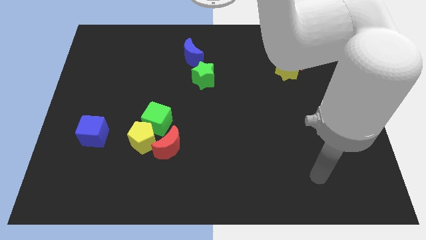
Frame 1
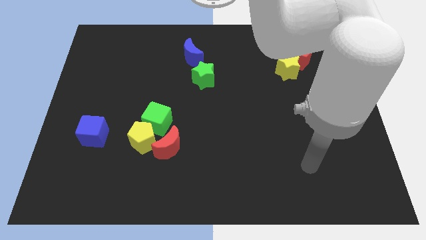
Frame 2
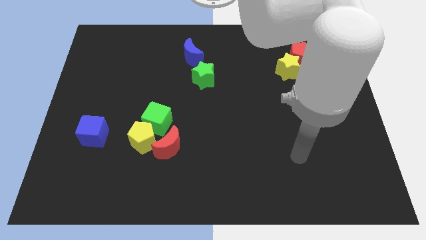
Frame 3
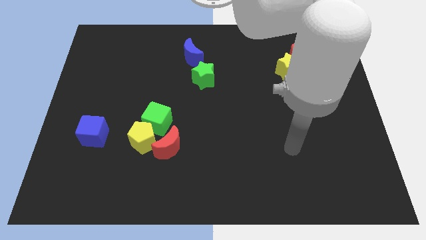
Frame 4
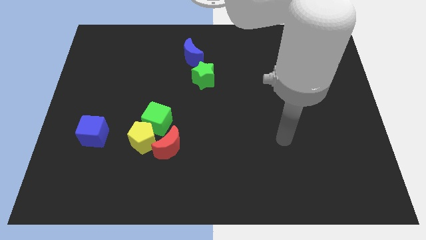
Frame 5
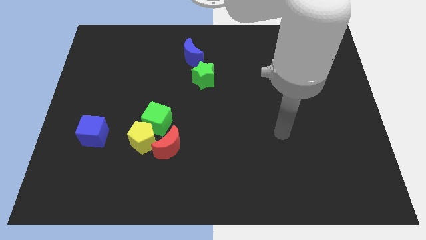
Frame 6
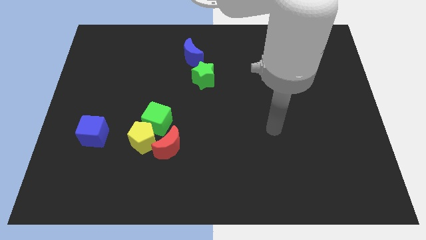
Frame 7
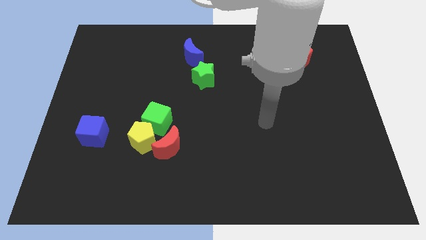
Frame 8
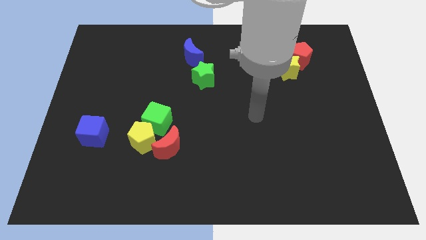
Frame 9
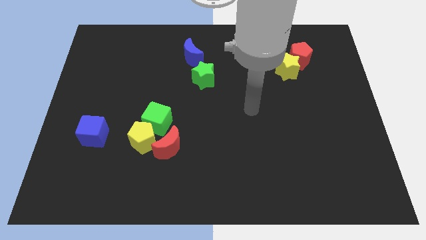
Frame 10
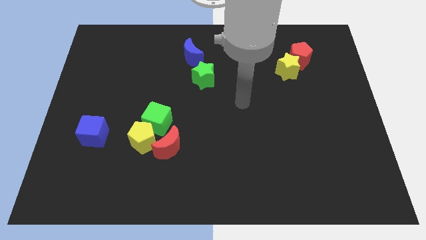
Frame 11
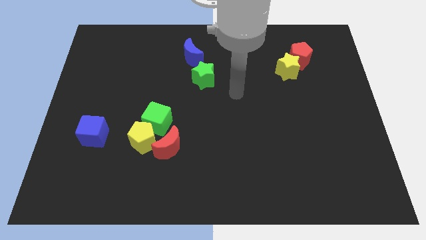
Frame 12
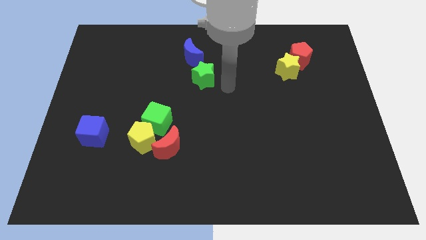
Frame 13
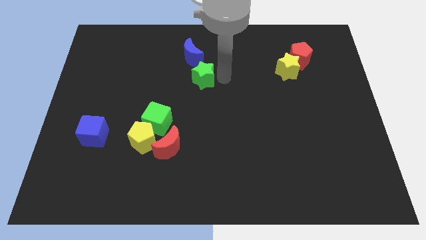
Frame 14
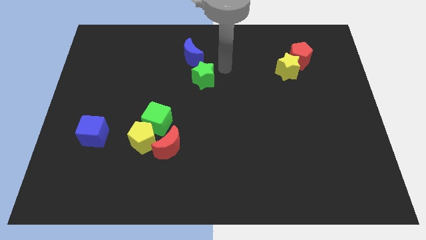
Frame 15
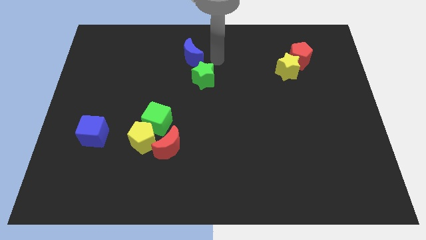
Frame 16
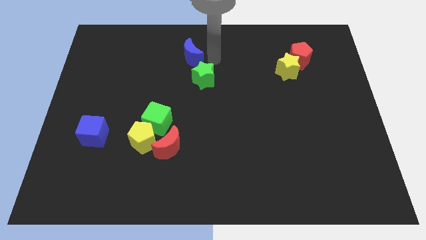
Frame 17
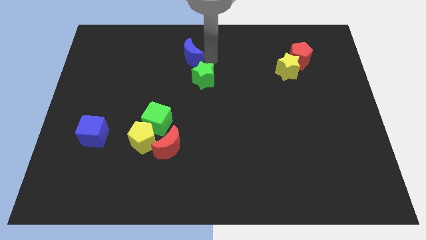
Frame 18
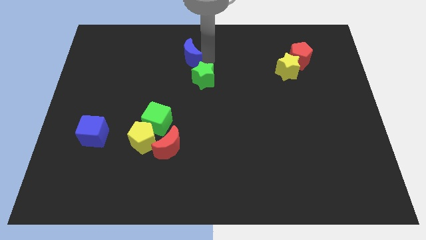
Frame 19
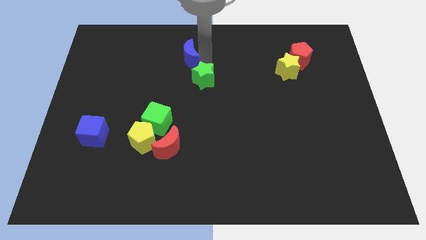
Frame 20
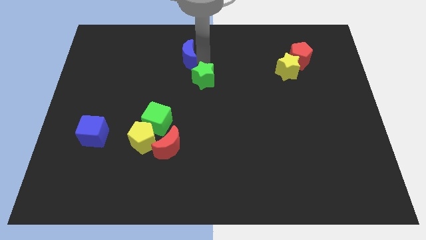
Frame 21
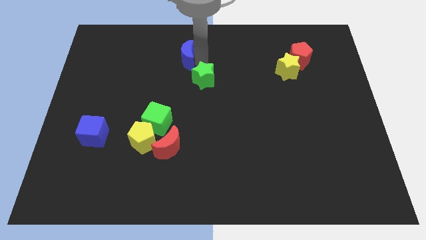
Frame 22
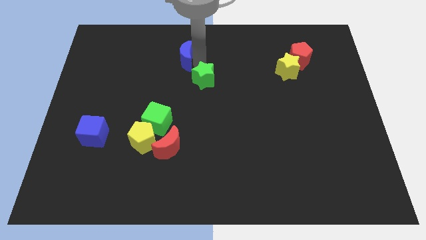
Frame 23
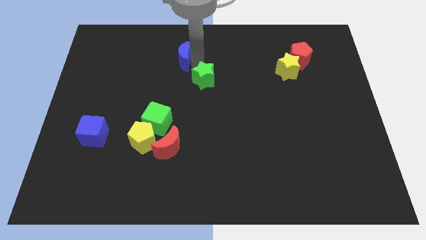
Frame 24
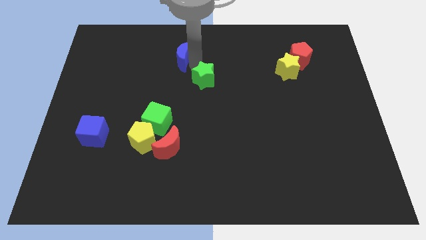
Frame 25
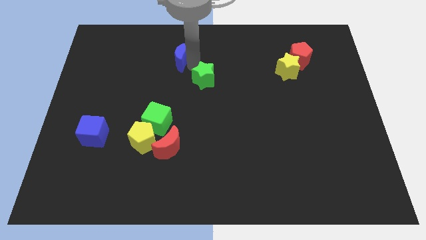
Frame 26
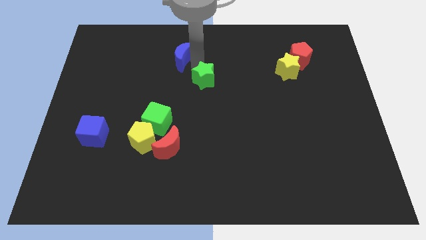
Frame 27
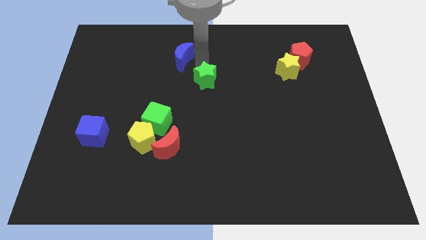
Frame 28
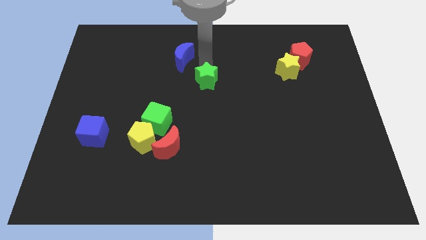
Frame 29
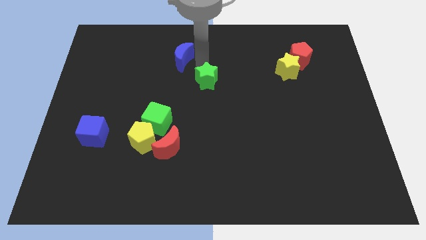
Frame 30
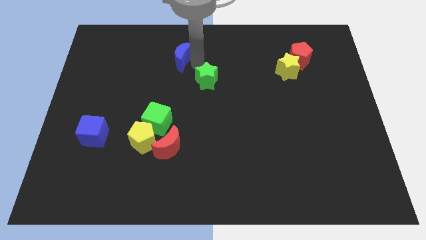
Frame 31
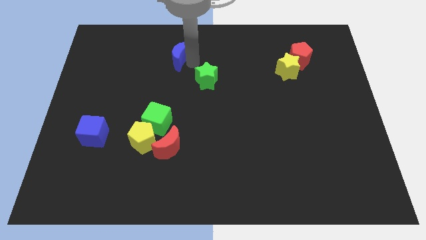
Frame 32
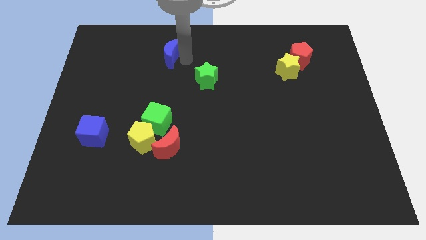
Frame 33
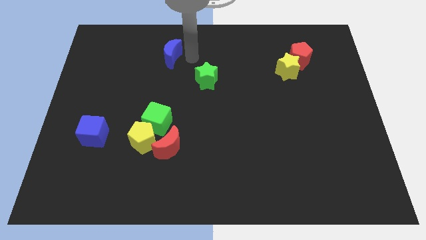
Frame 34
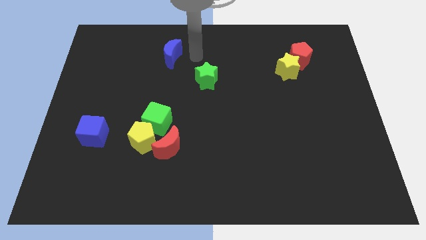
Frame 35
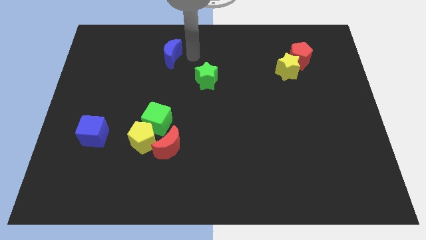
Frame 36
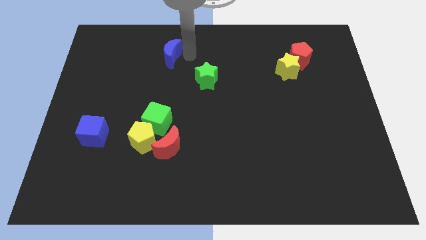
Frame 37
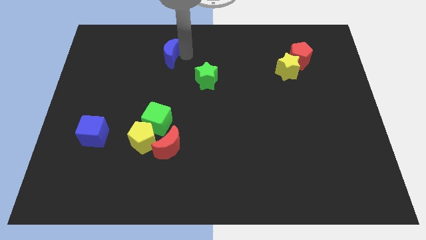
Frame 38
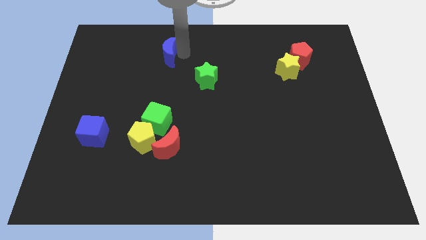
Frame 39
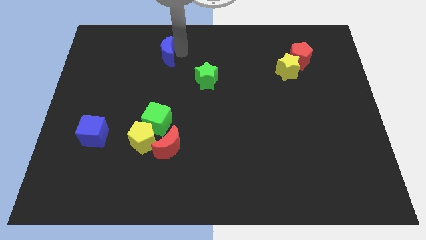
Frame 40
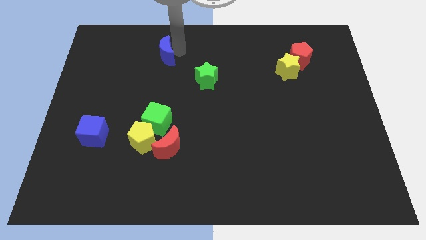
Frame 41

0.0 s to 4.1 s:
move the blue moon to the left a bit

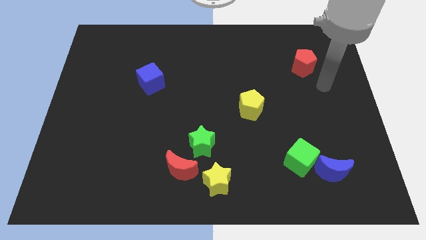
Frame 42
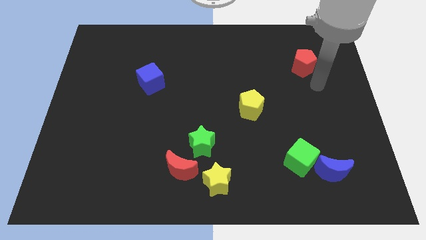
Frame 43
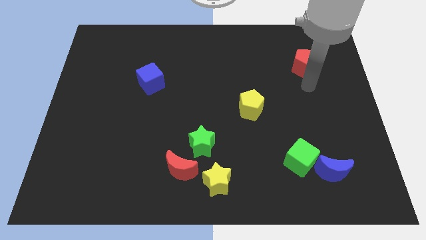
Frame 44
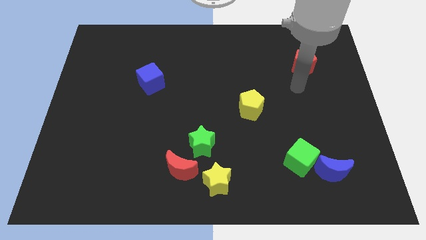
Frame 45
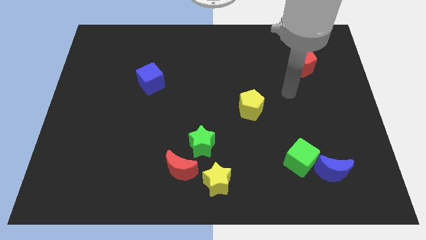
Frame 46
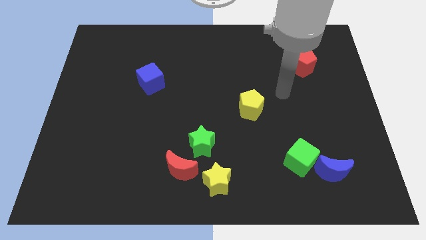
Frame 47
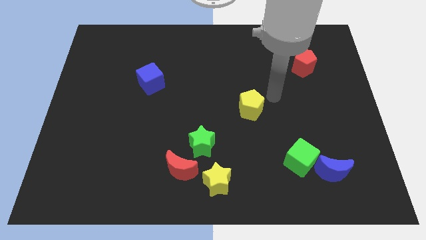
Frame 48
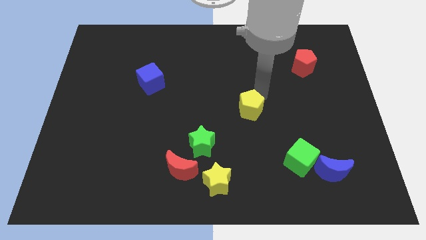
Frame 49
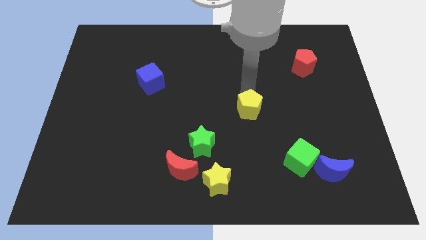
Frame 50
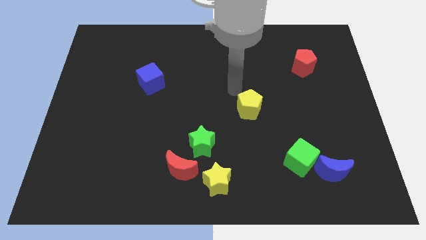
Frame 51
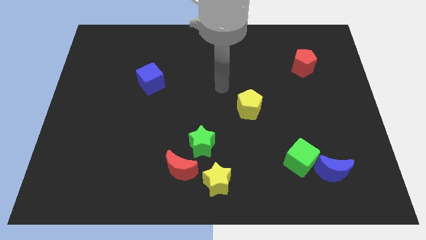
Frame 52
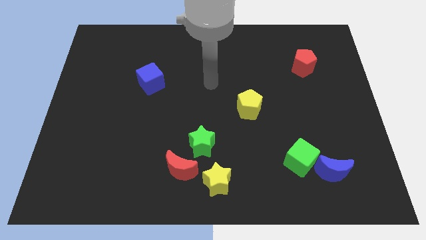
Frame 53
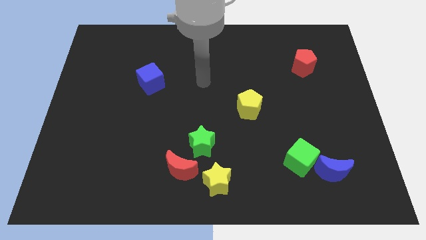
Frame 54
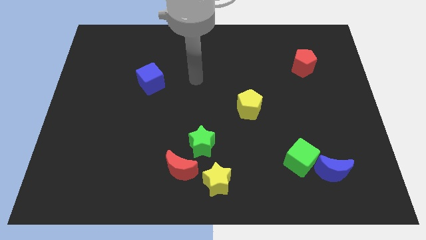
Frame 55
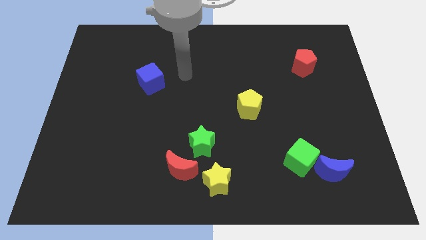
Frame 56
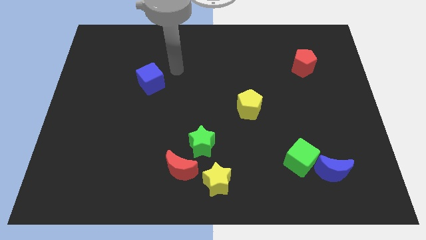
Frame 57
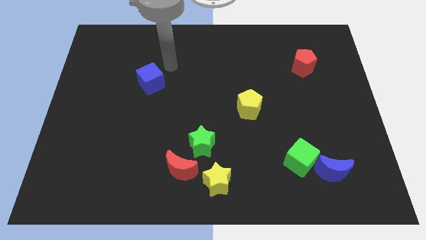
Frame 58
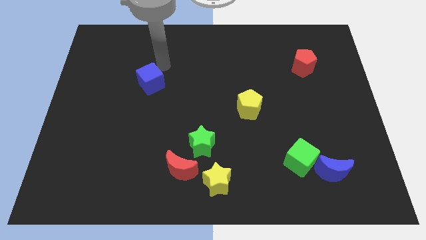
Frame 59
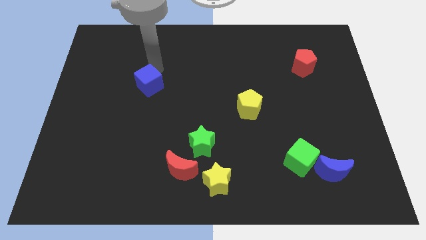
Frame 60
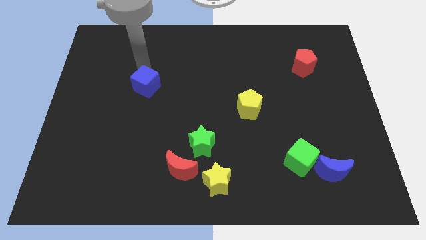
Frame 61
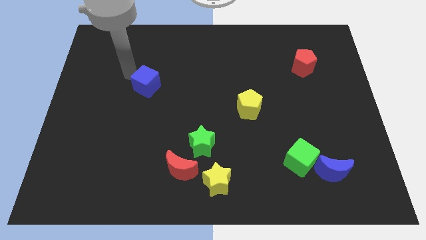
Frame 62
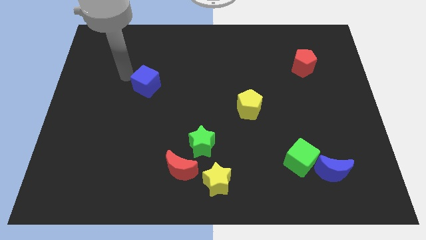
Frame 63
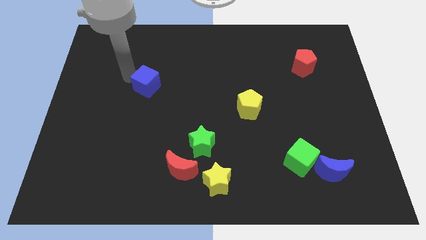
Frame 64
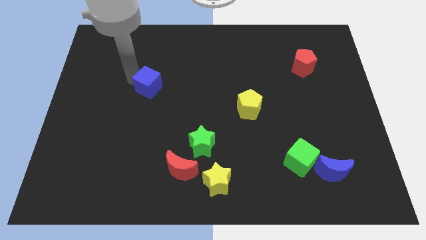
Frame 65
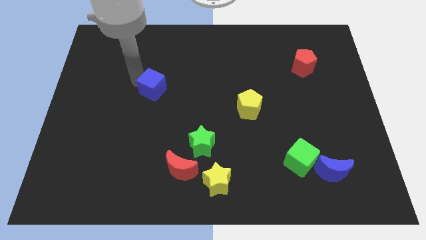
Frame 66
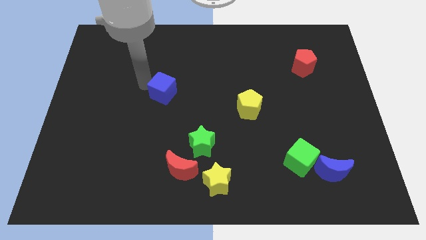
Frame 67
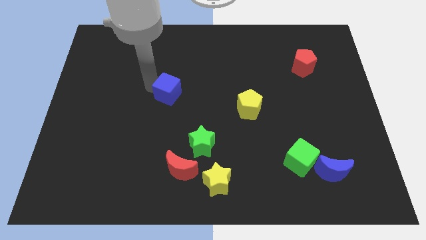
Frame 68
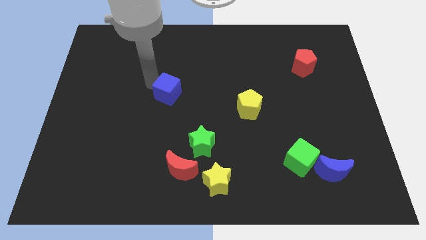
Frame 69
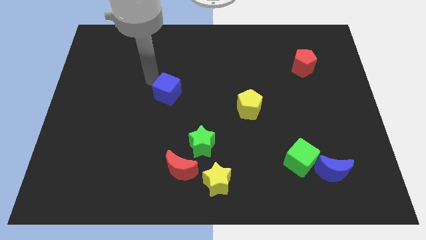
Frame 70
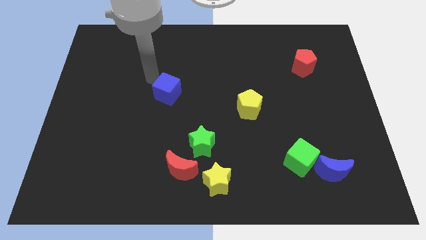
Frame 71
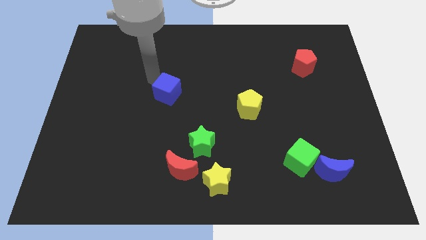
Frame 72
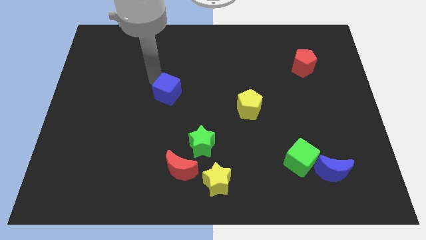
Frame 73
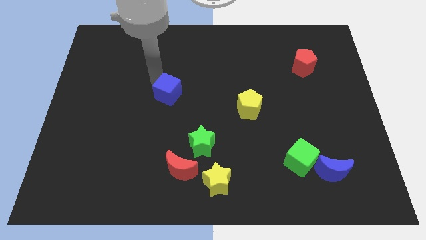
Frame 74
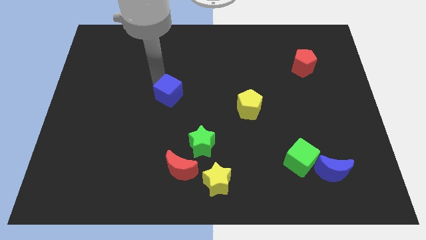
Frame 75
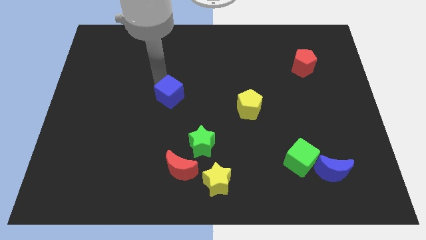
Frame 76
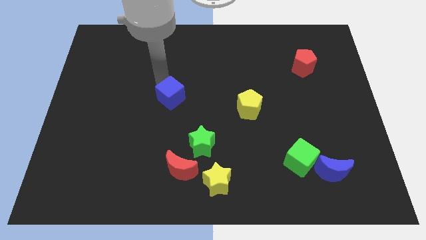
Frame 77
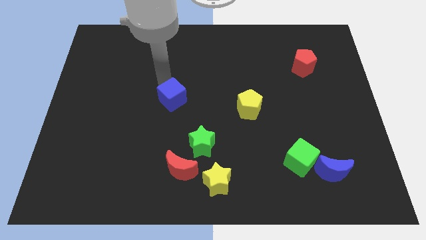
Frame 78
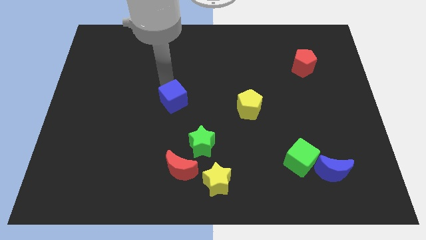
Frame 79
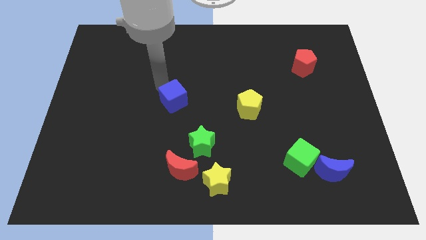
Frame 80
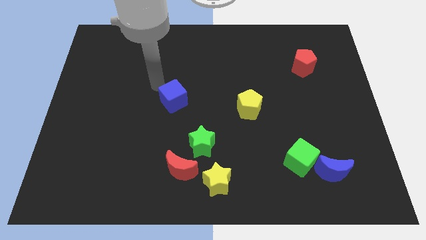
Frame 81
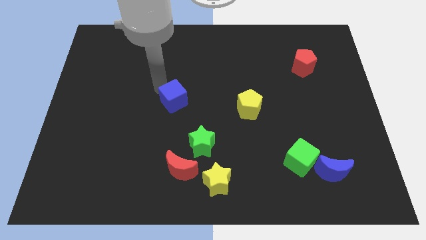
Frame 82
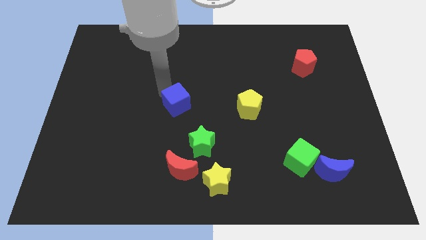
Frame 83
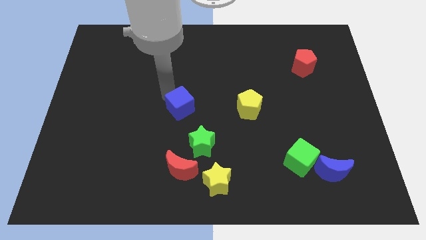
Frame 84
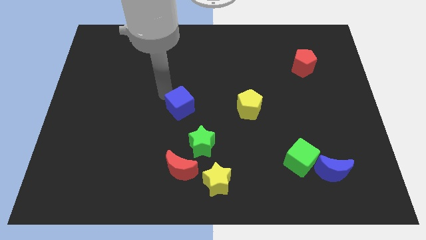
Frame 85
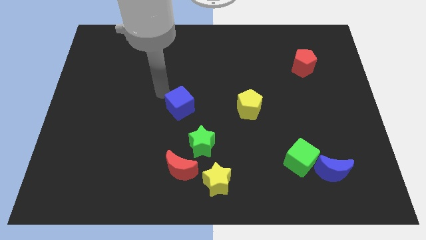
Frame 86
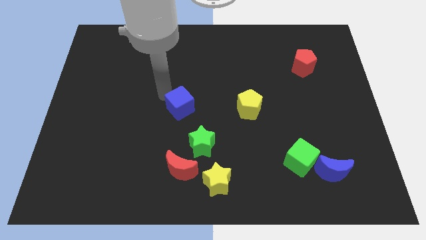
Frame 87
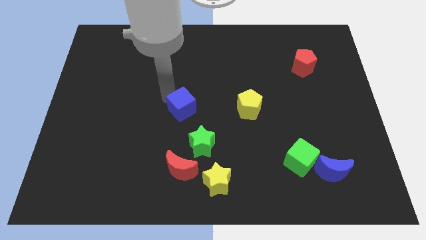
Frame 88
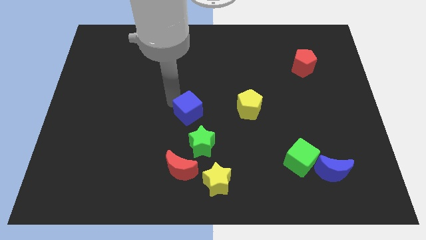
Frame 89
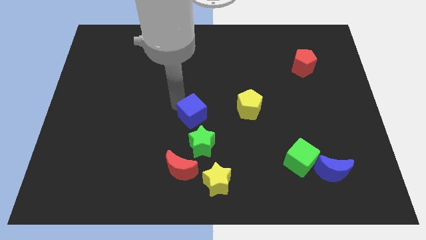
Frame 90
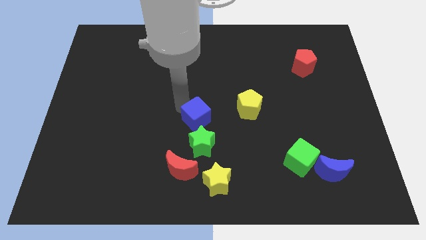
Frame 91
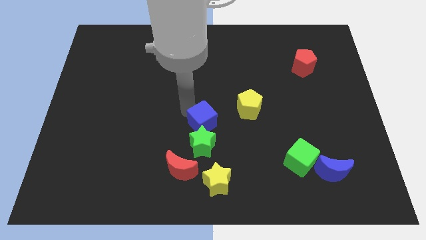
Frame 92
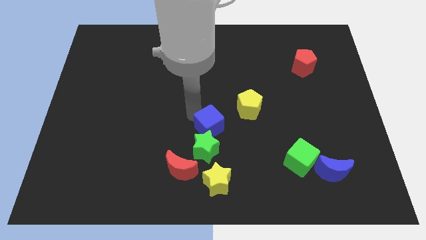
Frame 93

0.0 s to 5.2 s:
move the blue cube downwards and to the right diagonally
